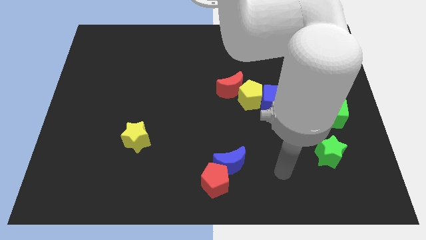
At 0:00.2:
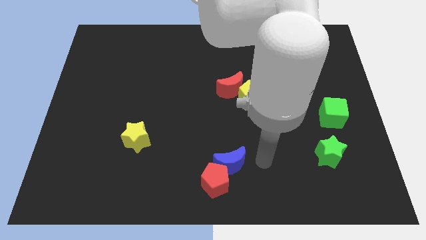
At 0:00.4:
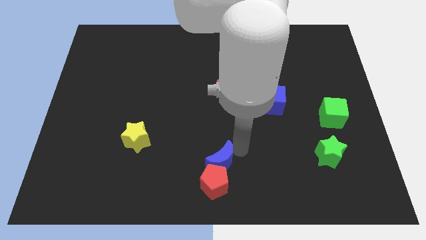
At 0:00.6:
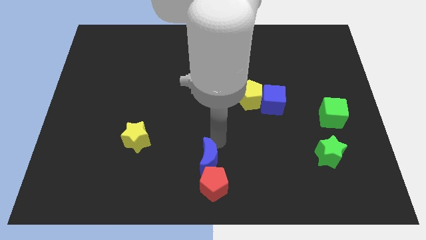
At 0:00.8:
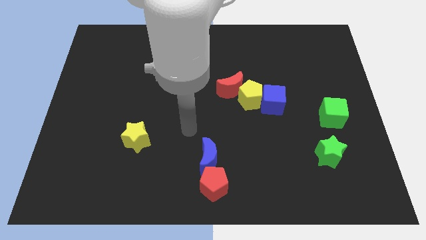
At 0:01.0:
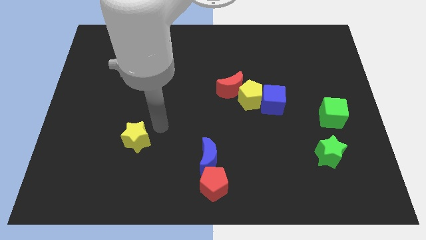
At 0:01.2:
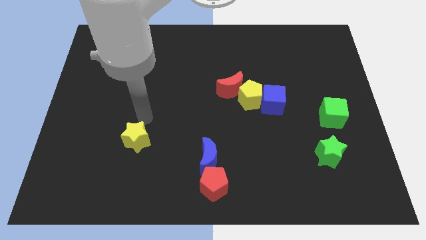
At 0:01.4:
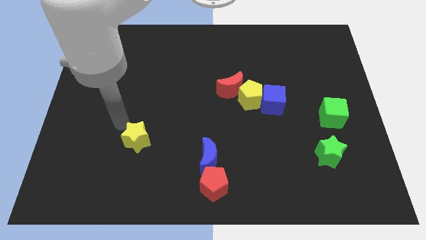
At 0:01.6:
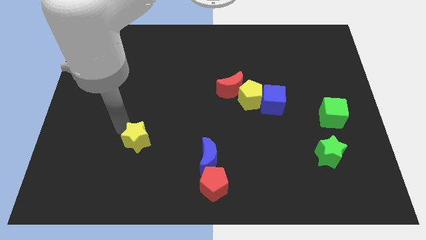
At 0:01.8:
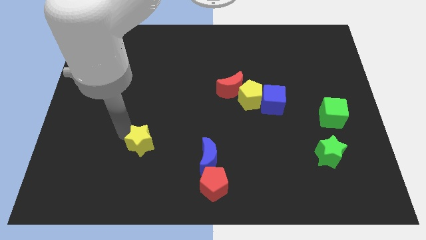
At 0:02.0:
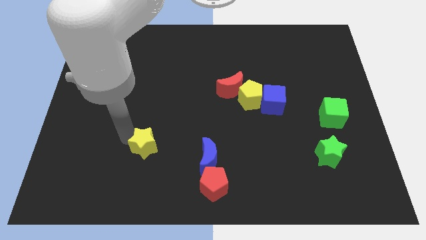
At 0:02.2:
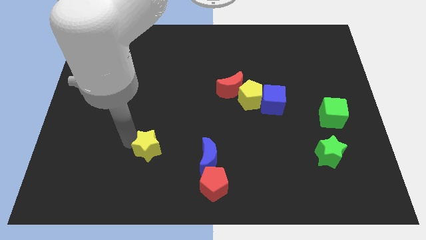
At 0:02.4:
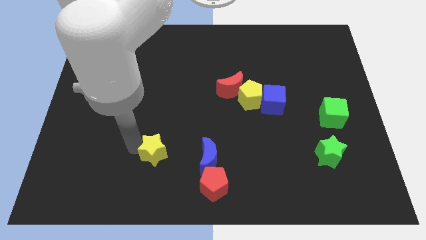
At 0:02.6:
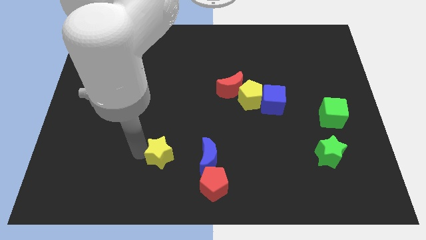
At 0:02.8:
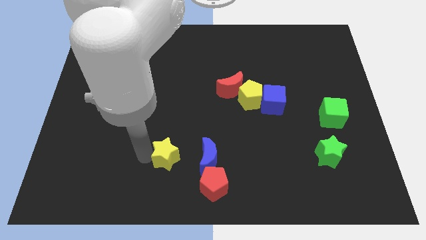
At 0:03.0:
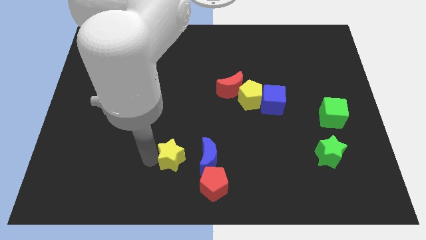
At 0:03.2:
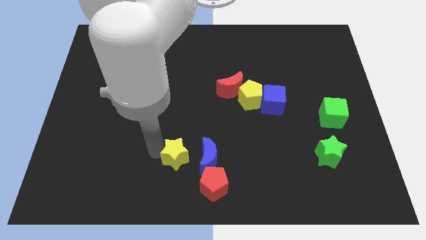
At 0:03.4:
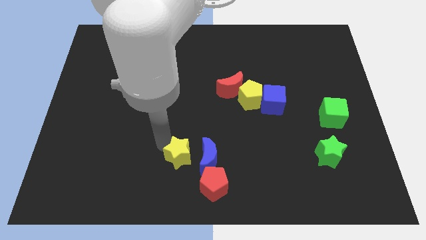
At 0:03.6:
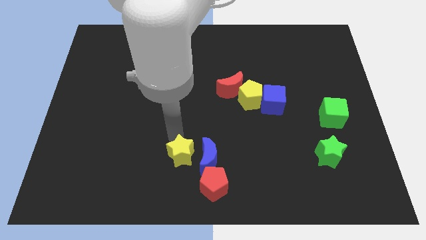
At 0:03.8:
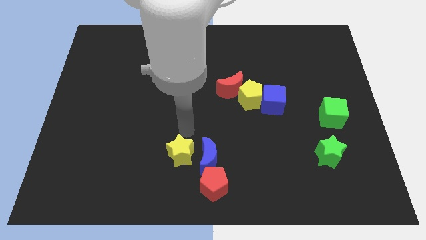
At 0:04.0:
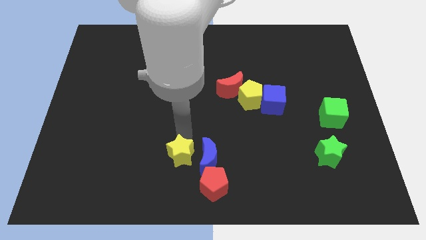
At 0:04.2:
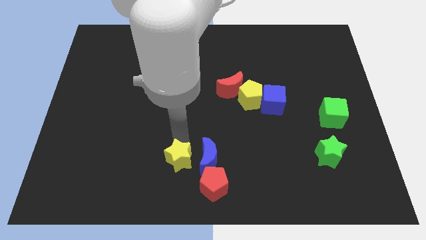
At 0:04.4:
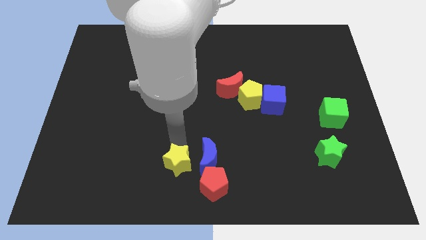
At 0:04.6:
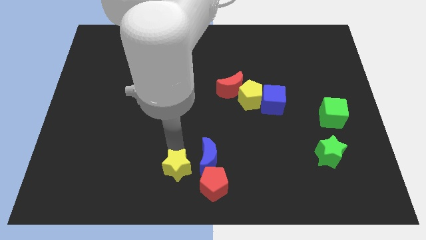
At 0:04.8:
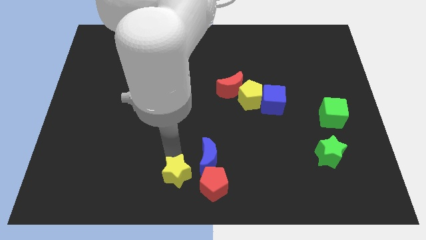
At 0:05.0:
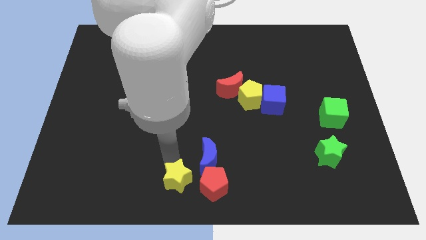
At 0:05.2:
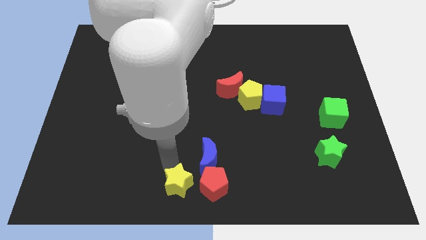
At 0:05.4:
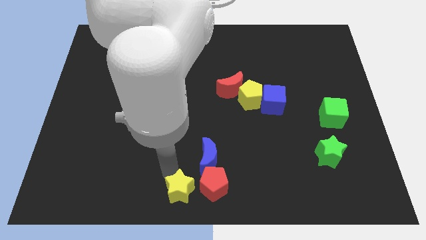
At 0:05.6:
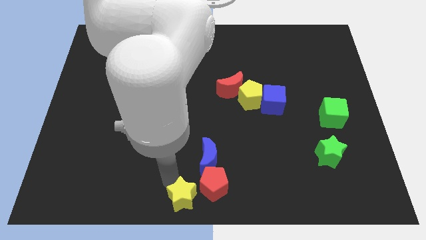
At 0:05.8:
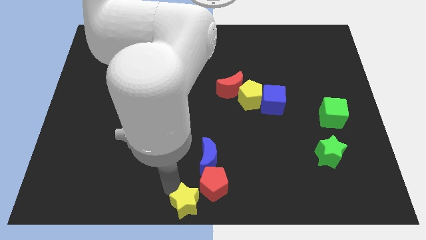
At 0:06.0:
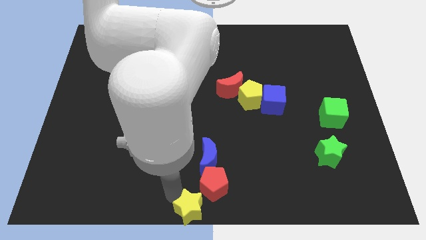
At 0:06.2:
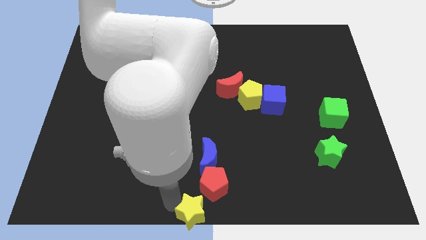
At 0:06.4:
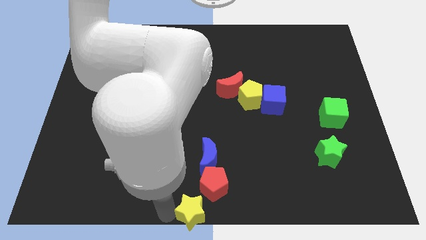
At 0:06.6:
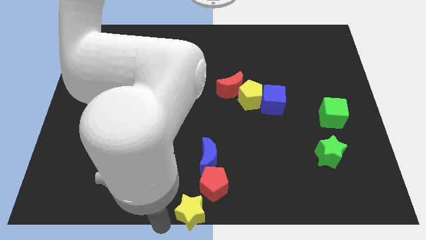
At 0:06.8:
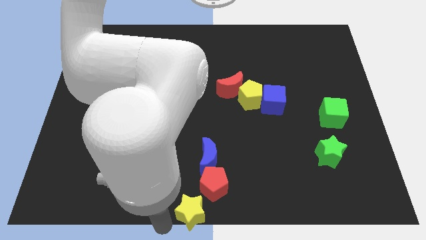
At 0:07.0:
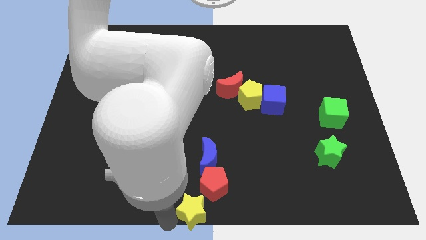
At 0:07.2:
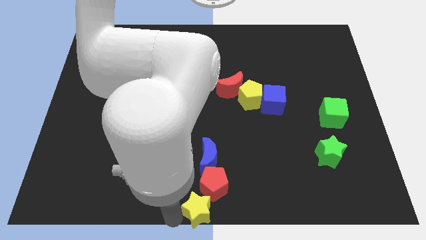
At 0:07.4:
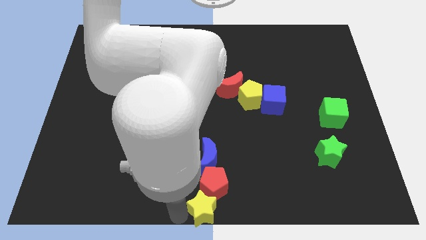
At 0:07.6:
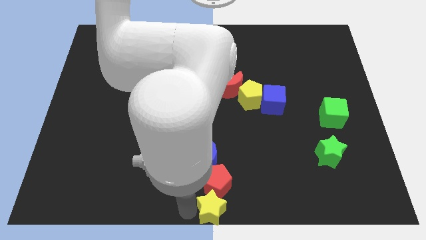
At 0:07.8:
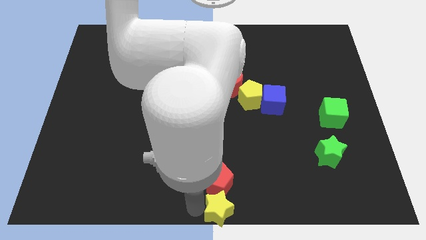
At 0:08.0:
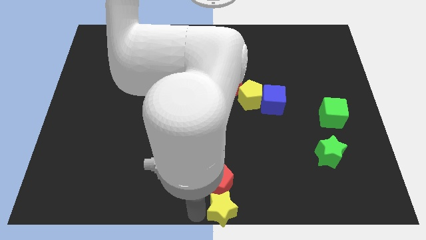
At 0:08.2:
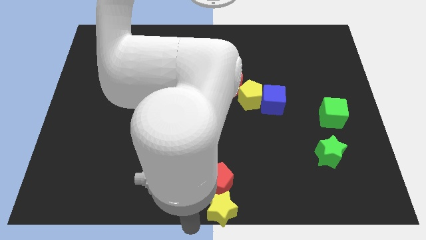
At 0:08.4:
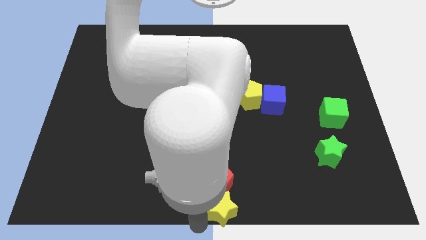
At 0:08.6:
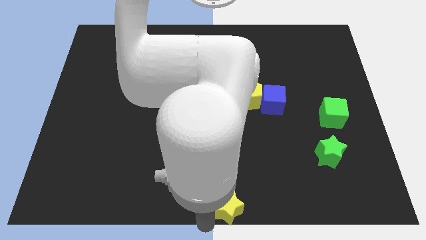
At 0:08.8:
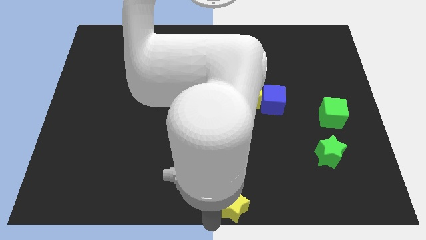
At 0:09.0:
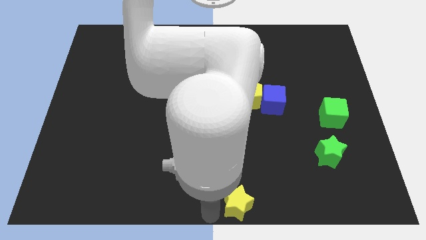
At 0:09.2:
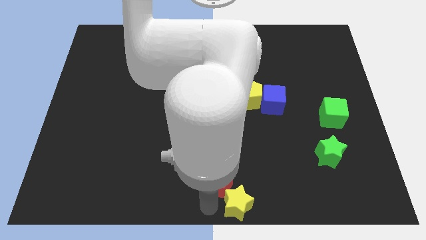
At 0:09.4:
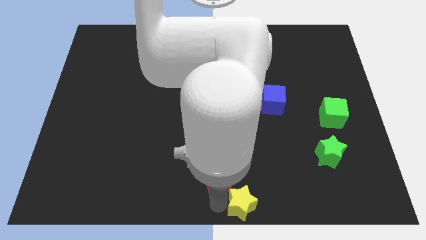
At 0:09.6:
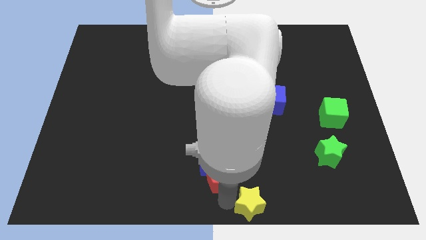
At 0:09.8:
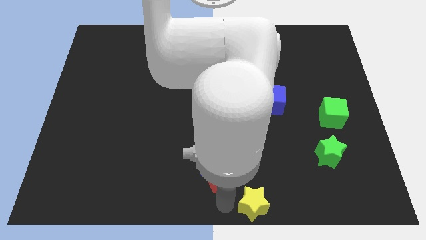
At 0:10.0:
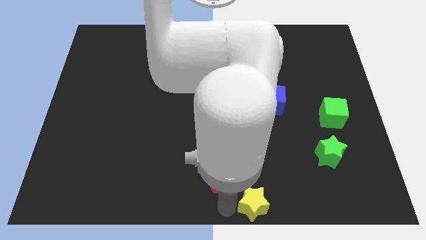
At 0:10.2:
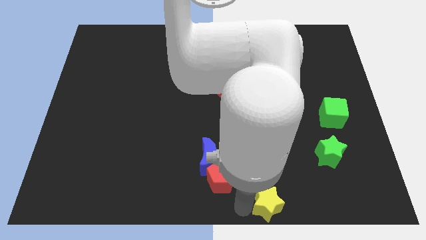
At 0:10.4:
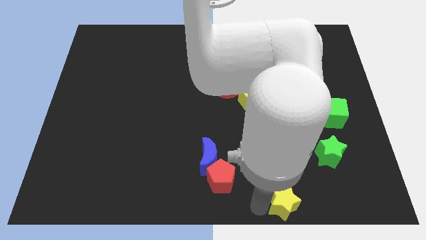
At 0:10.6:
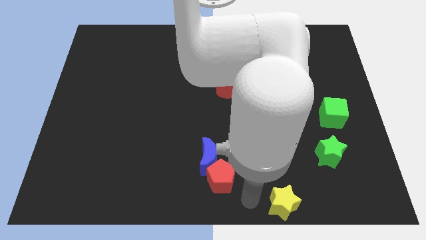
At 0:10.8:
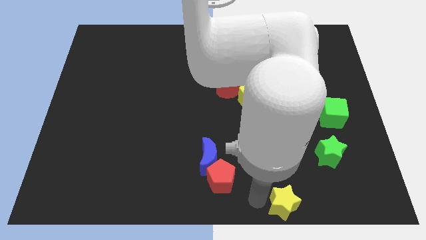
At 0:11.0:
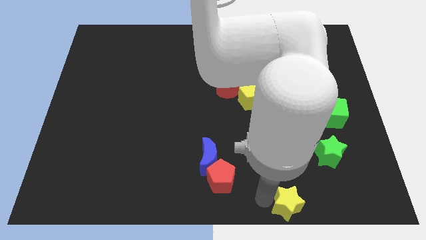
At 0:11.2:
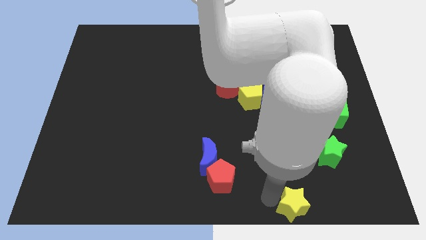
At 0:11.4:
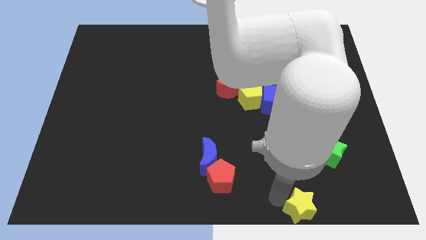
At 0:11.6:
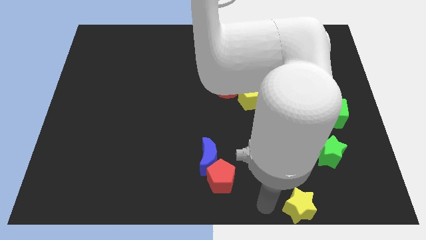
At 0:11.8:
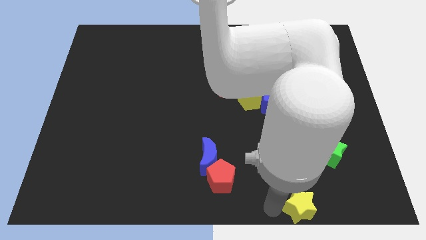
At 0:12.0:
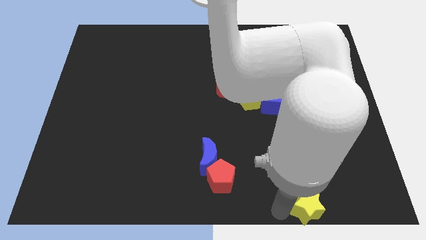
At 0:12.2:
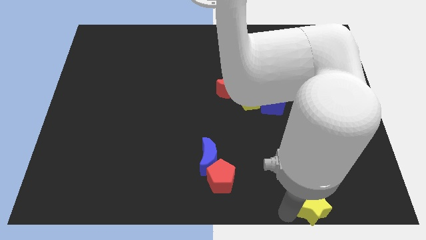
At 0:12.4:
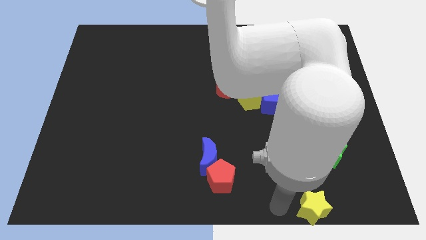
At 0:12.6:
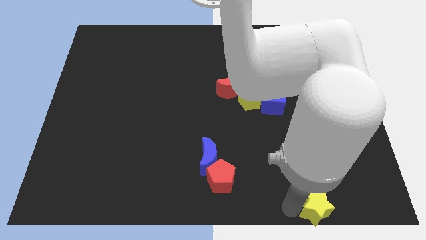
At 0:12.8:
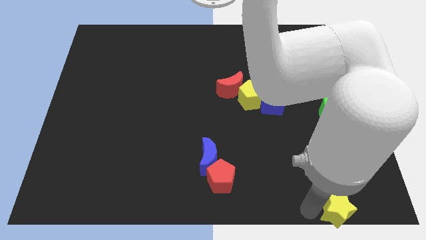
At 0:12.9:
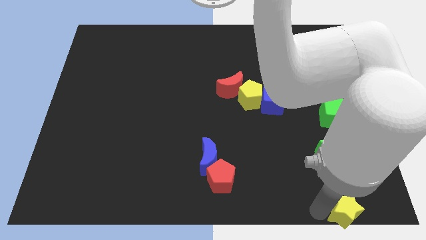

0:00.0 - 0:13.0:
put the yellow star to the bottom right
